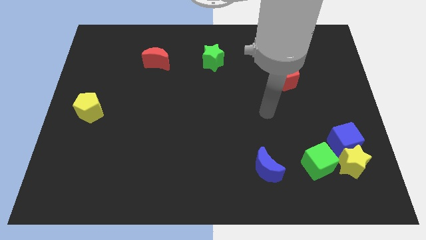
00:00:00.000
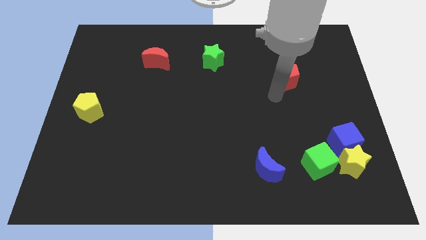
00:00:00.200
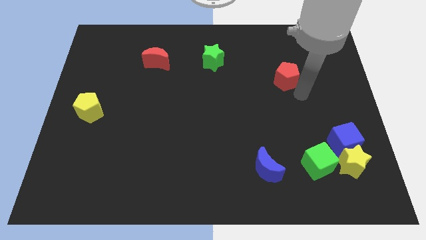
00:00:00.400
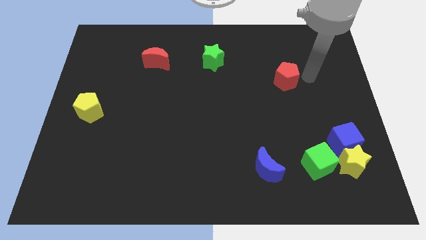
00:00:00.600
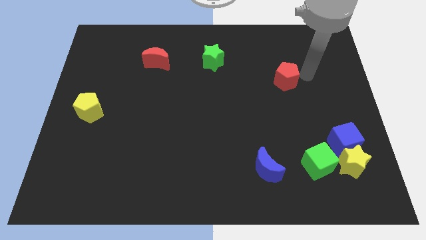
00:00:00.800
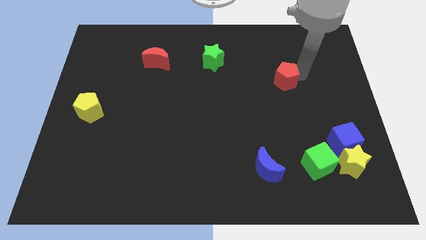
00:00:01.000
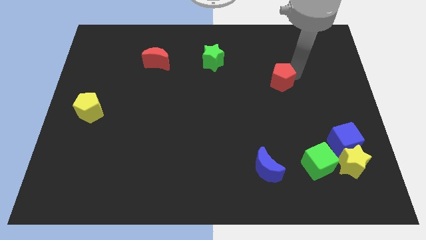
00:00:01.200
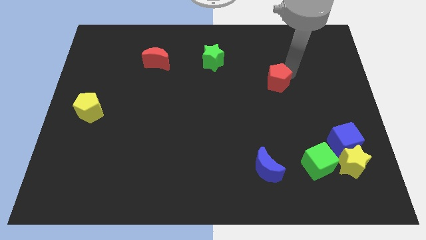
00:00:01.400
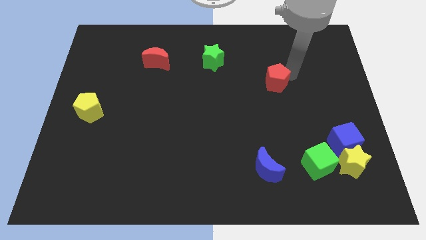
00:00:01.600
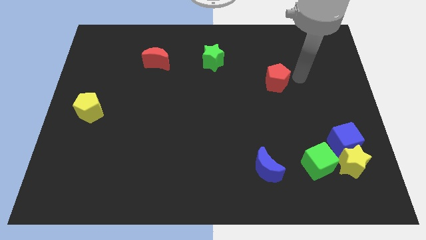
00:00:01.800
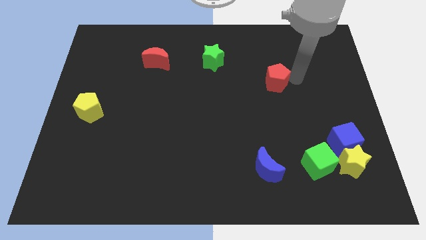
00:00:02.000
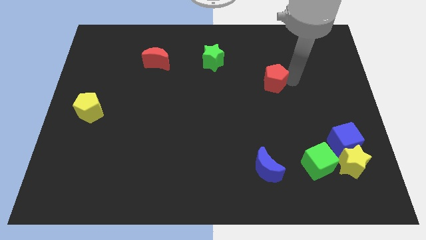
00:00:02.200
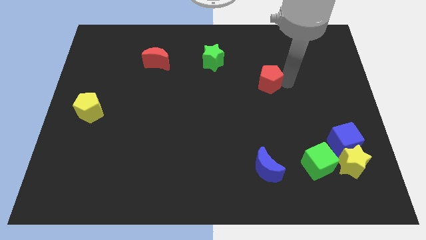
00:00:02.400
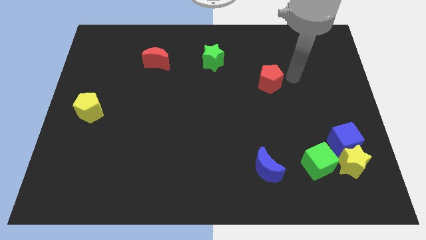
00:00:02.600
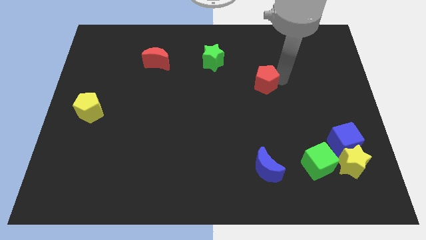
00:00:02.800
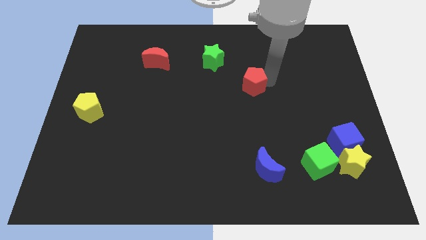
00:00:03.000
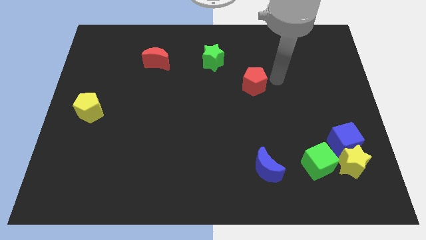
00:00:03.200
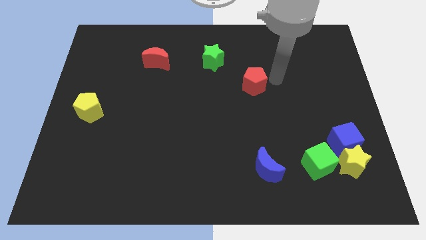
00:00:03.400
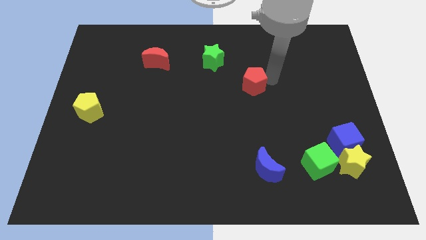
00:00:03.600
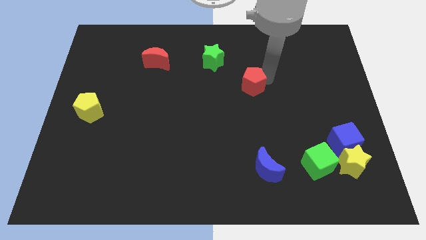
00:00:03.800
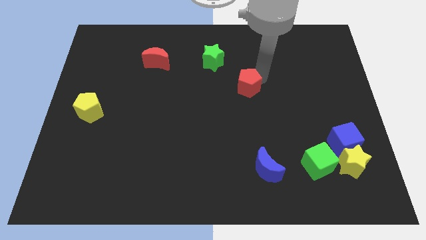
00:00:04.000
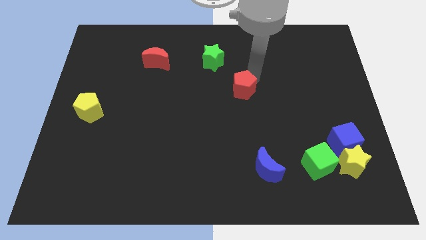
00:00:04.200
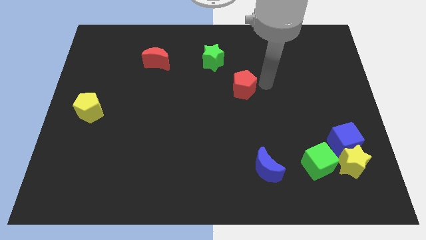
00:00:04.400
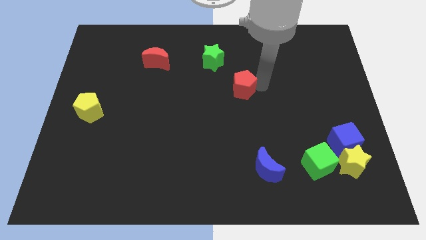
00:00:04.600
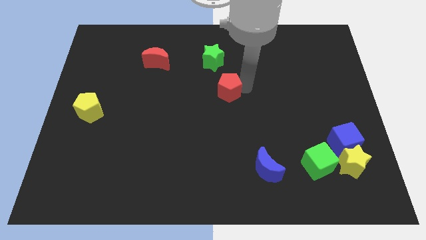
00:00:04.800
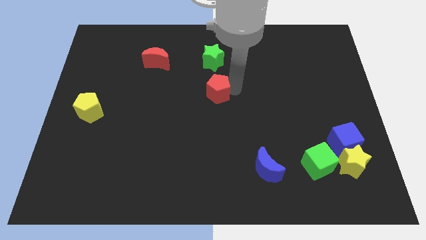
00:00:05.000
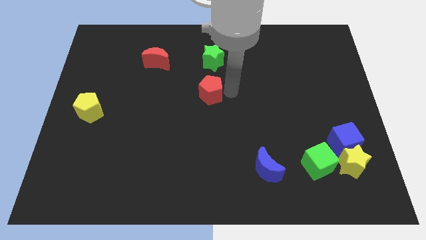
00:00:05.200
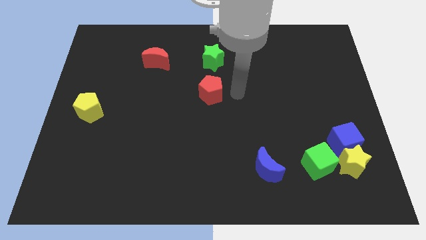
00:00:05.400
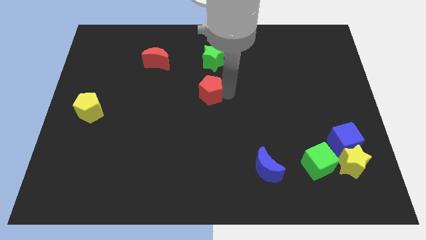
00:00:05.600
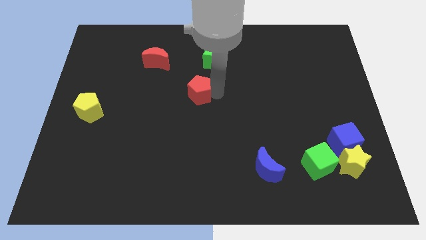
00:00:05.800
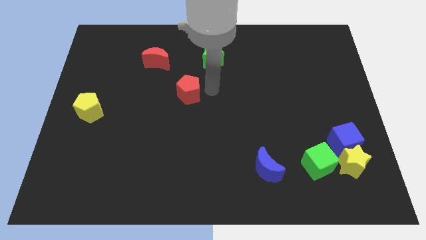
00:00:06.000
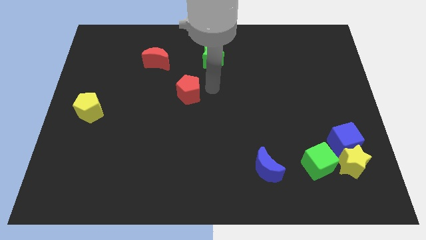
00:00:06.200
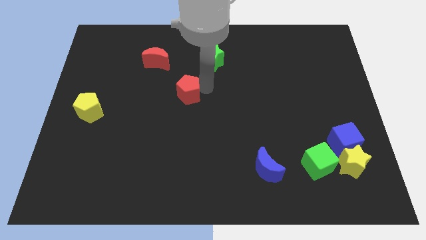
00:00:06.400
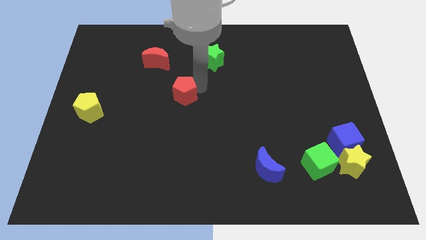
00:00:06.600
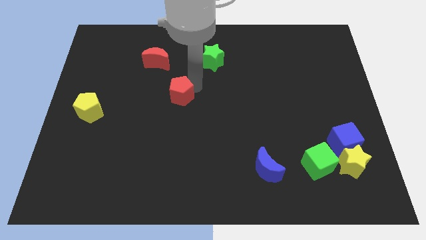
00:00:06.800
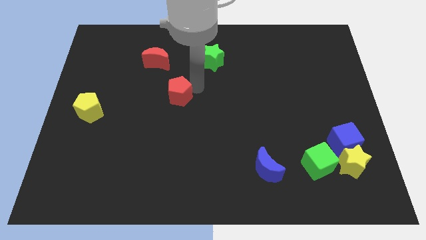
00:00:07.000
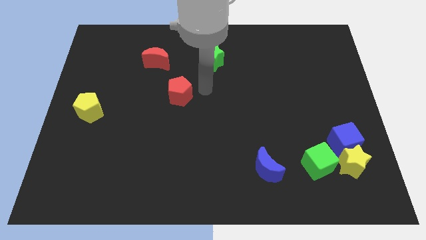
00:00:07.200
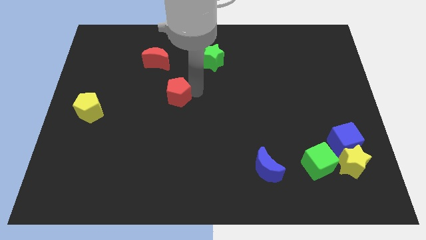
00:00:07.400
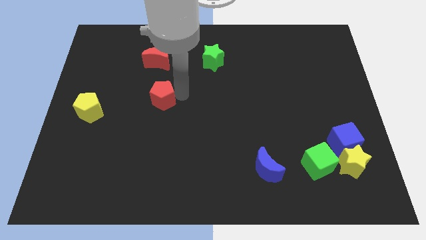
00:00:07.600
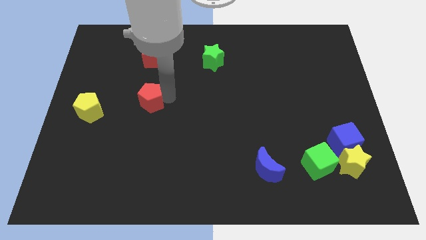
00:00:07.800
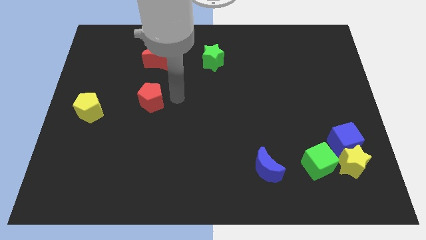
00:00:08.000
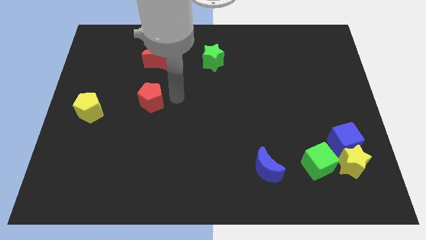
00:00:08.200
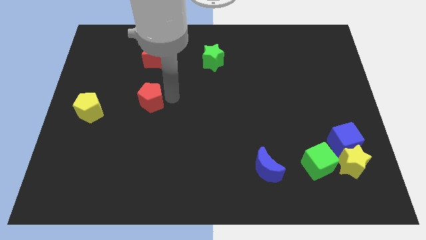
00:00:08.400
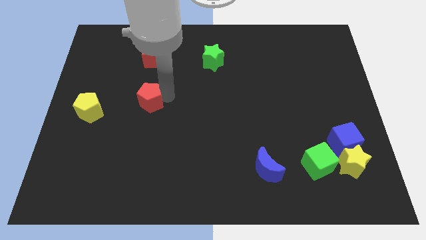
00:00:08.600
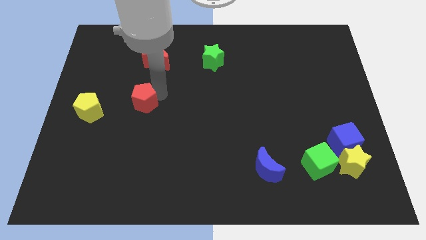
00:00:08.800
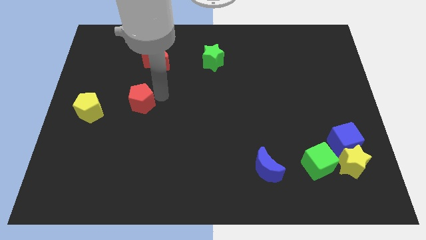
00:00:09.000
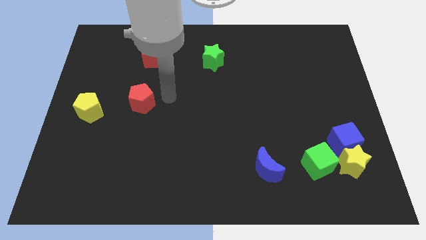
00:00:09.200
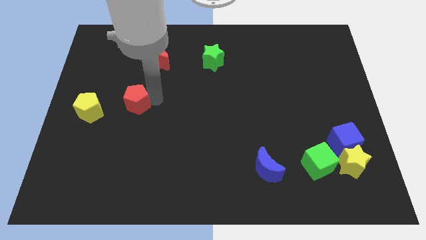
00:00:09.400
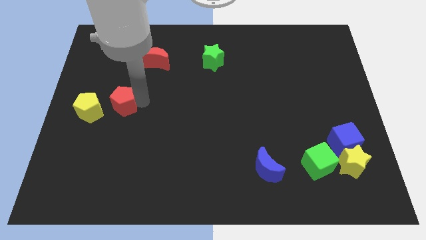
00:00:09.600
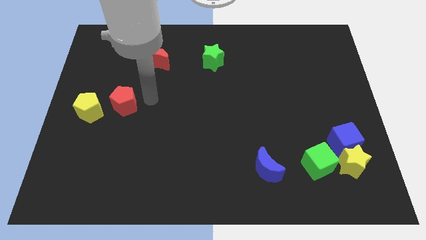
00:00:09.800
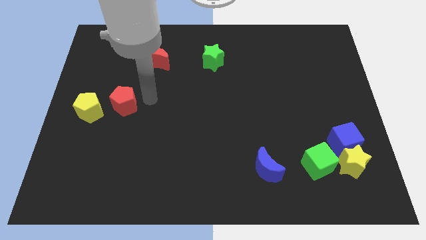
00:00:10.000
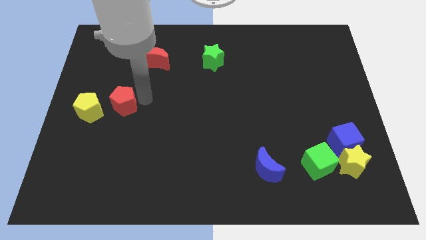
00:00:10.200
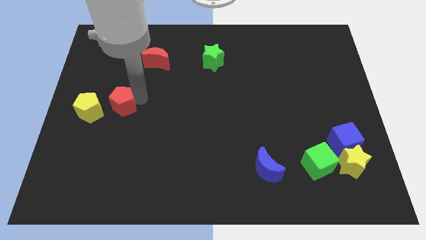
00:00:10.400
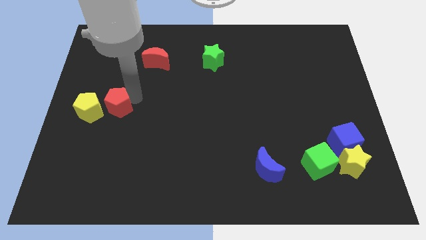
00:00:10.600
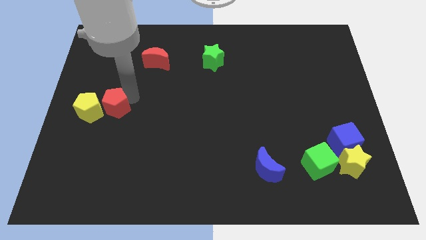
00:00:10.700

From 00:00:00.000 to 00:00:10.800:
put the red pentagon next to the yellow pentagon

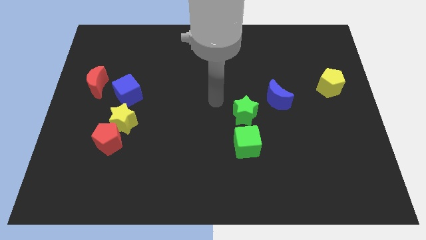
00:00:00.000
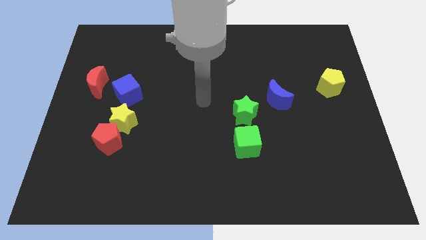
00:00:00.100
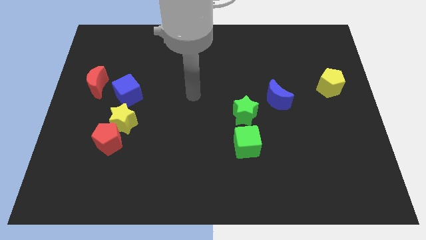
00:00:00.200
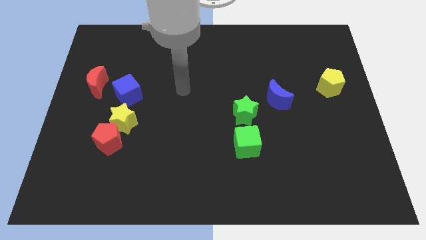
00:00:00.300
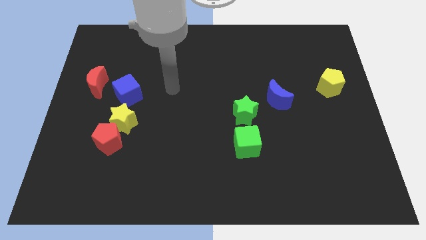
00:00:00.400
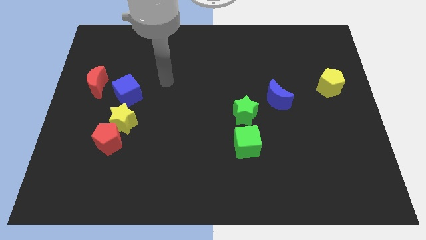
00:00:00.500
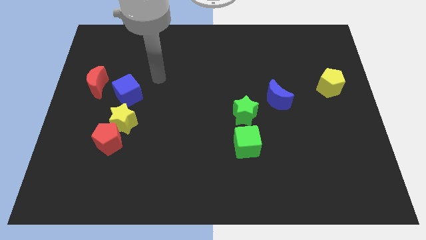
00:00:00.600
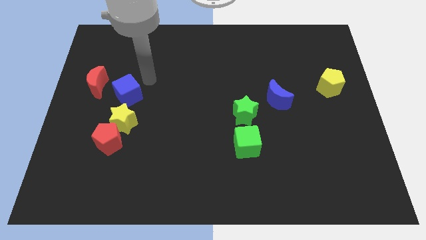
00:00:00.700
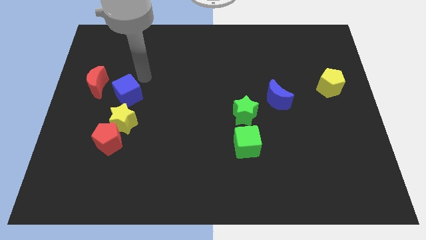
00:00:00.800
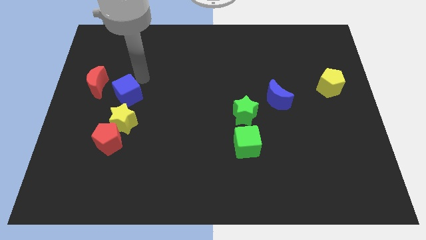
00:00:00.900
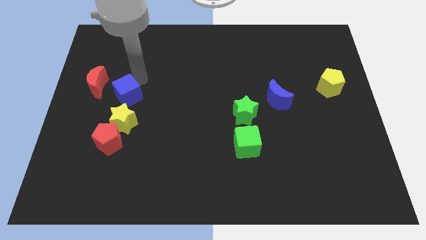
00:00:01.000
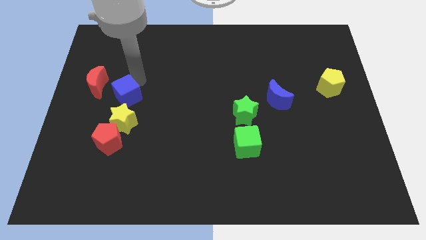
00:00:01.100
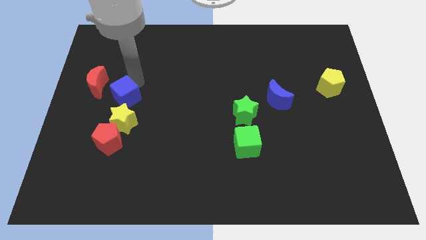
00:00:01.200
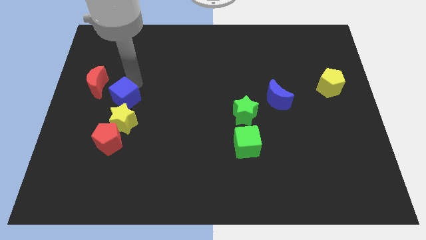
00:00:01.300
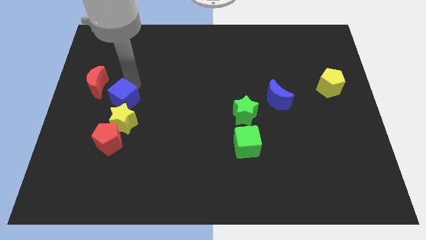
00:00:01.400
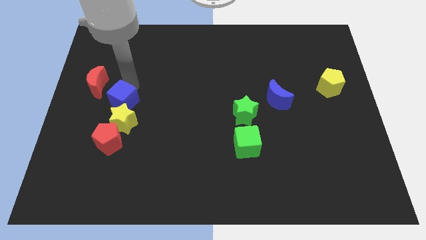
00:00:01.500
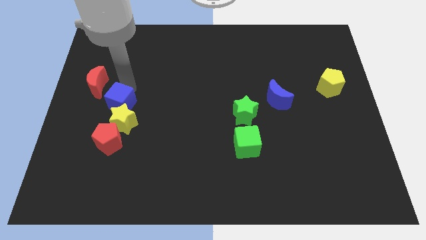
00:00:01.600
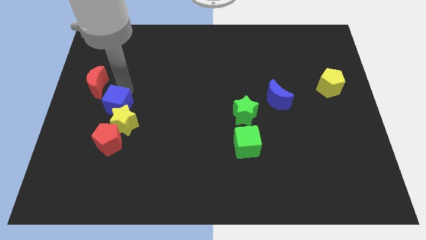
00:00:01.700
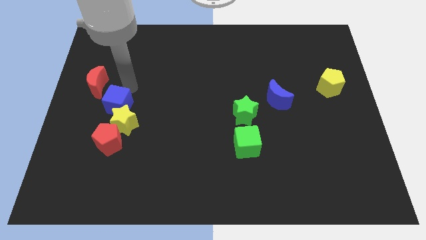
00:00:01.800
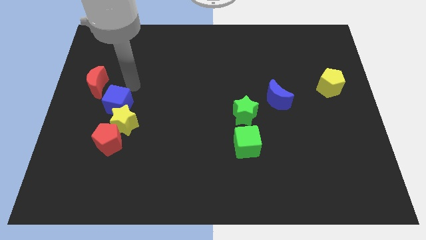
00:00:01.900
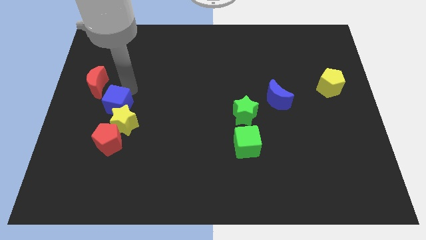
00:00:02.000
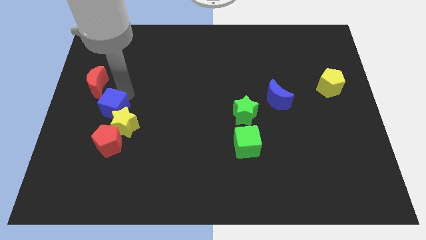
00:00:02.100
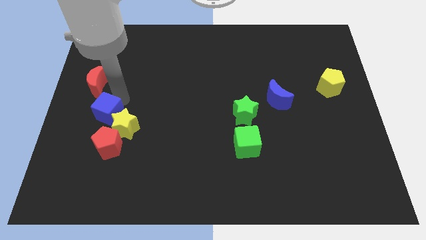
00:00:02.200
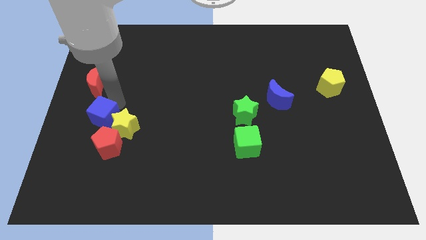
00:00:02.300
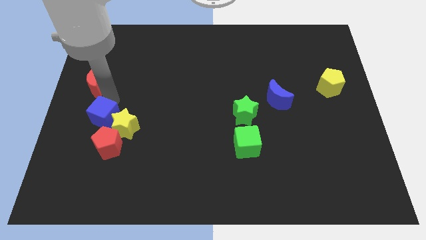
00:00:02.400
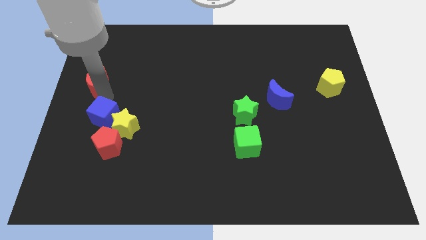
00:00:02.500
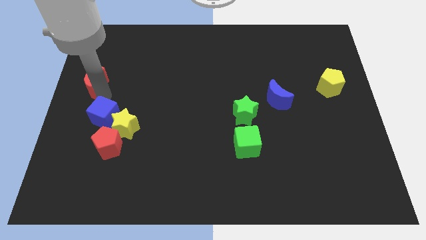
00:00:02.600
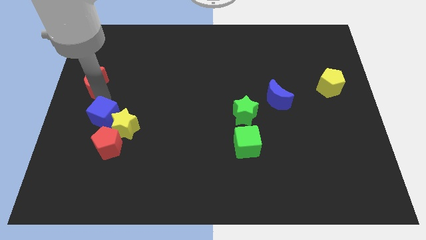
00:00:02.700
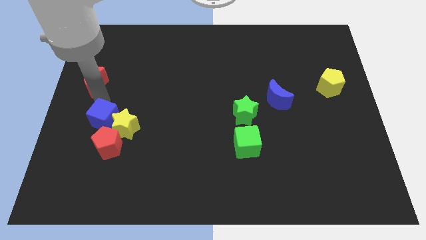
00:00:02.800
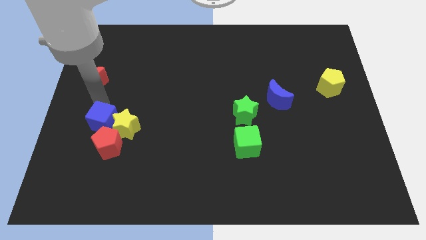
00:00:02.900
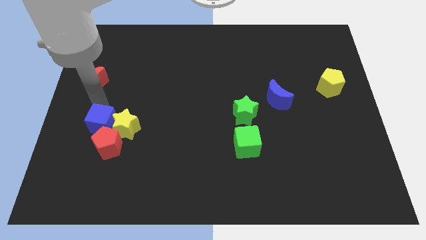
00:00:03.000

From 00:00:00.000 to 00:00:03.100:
move the blue cube to the red pentagon
